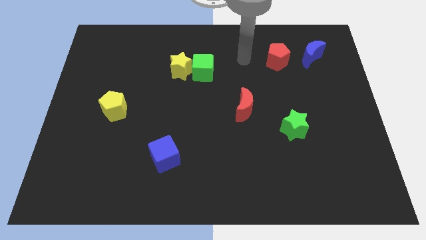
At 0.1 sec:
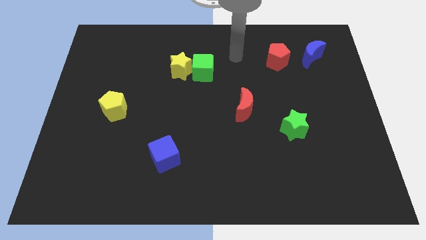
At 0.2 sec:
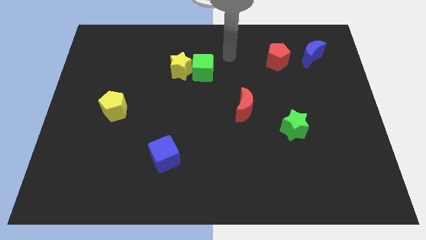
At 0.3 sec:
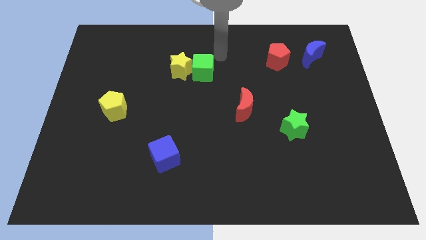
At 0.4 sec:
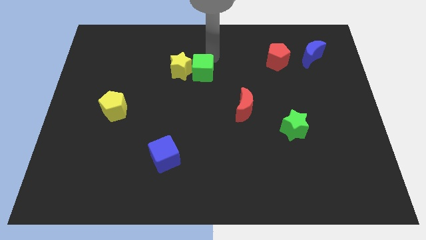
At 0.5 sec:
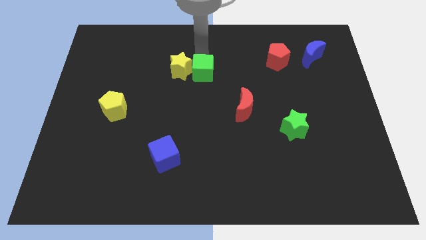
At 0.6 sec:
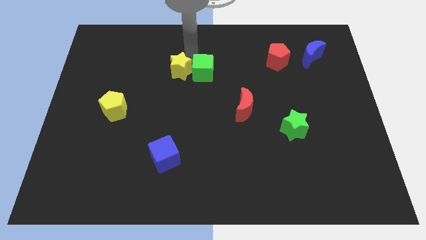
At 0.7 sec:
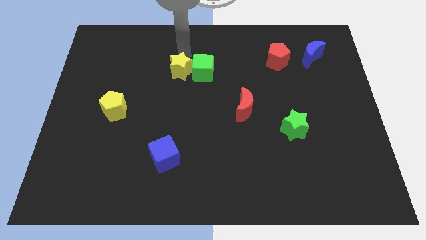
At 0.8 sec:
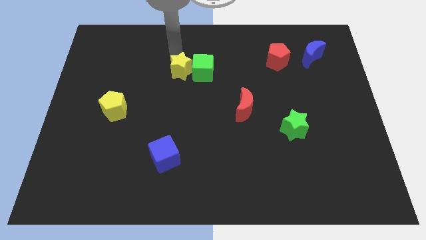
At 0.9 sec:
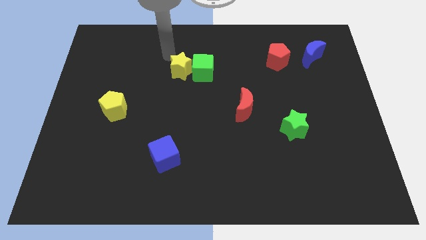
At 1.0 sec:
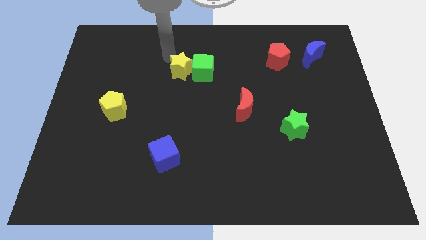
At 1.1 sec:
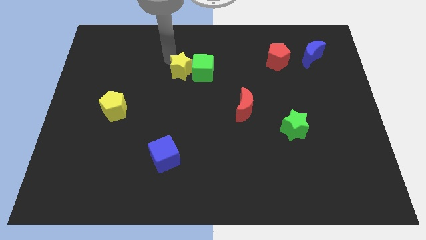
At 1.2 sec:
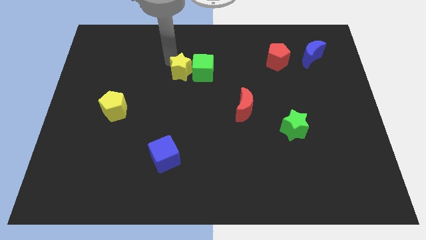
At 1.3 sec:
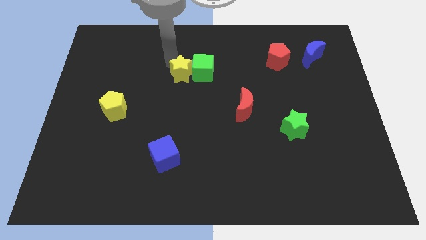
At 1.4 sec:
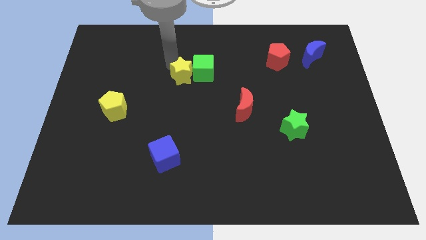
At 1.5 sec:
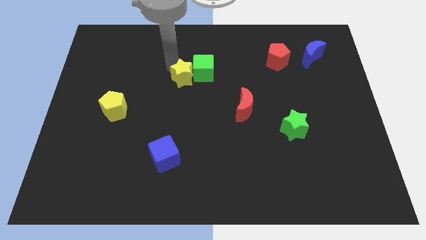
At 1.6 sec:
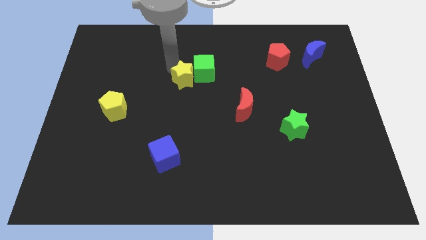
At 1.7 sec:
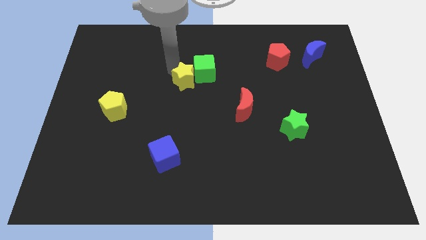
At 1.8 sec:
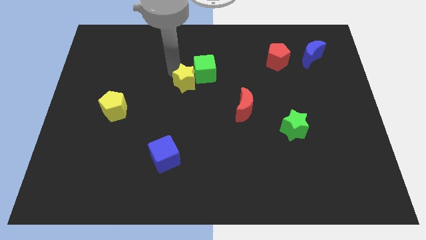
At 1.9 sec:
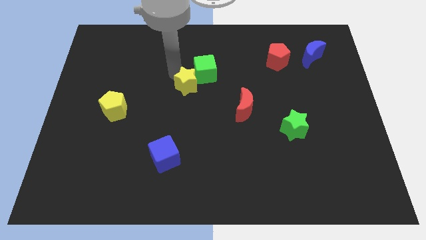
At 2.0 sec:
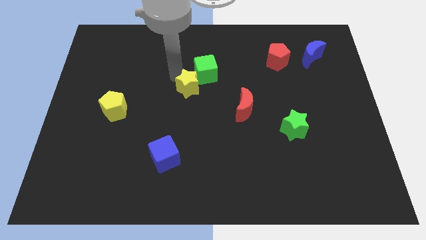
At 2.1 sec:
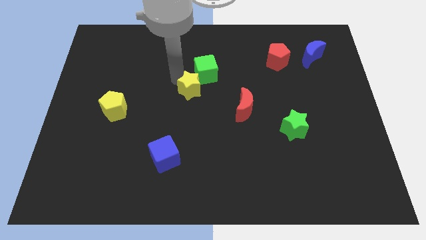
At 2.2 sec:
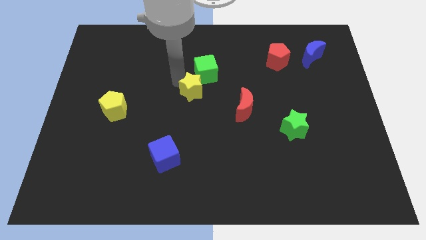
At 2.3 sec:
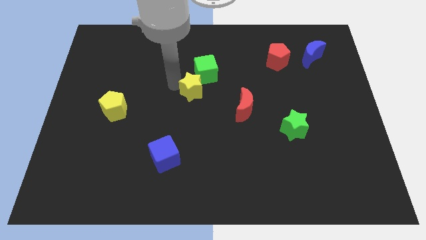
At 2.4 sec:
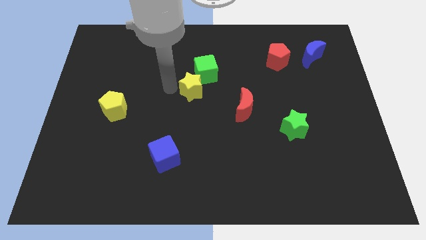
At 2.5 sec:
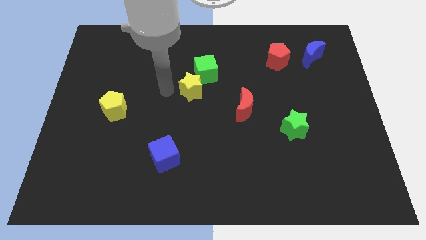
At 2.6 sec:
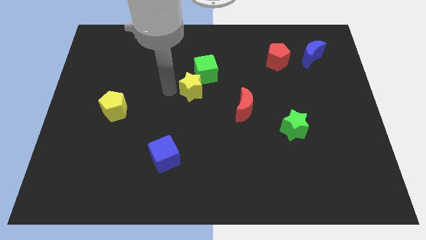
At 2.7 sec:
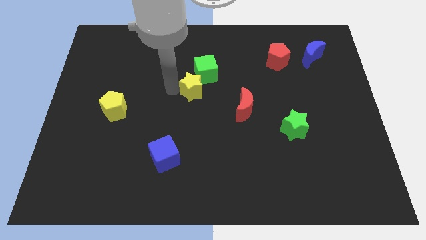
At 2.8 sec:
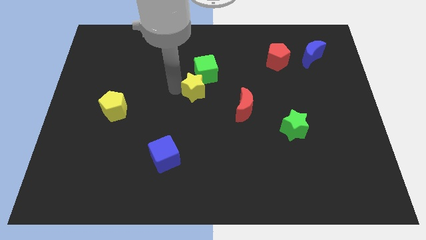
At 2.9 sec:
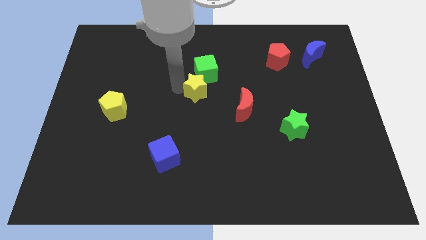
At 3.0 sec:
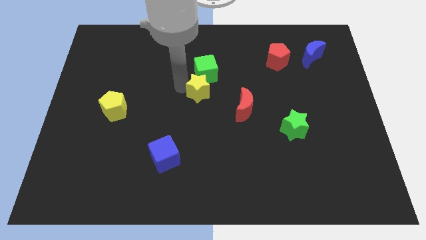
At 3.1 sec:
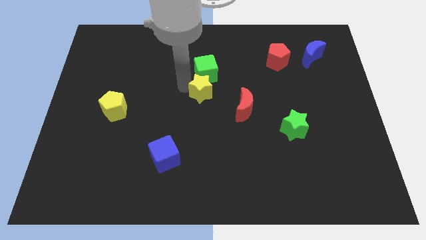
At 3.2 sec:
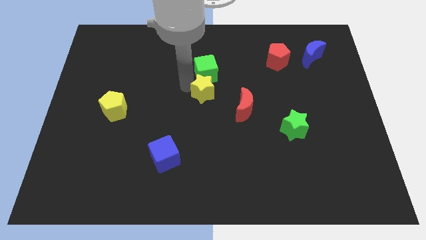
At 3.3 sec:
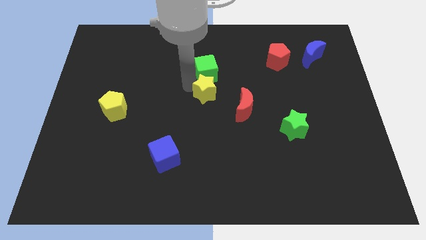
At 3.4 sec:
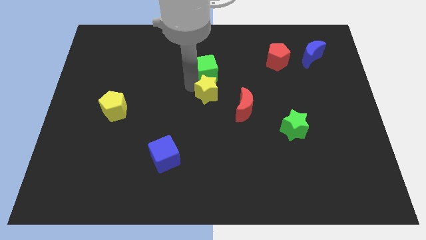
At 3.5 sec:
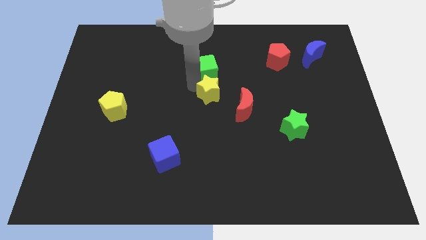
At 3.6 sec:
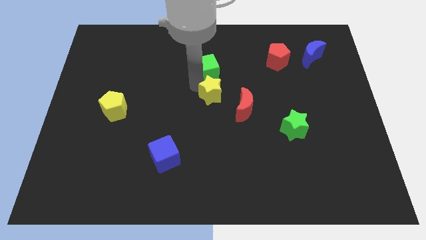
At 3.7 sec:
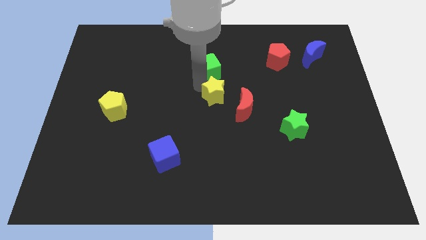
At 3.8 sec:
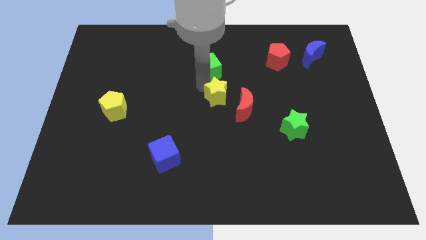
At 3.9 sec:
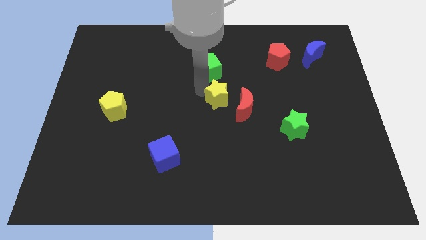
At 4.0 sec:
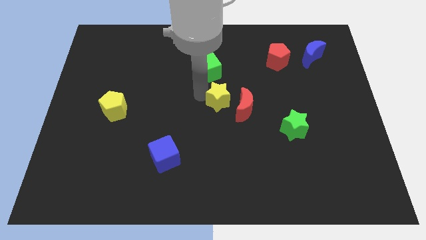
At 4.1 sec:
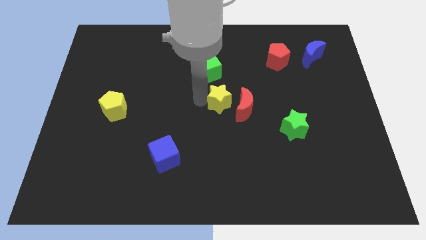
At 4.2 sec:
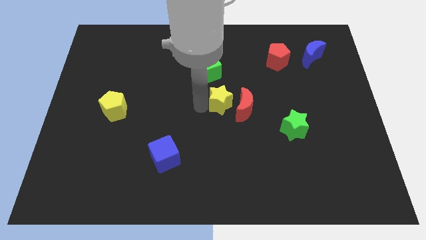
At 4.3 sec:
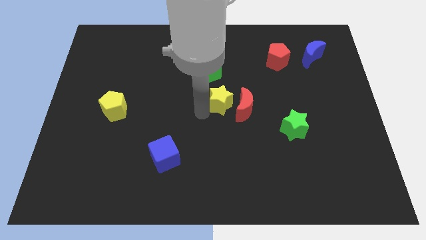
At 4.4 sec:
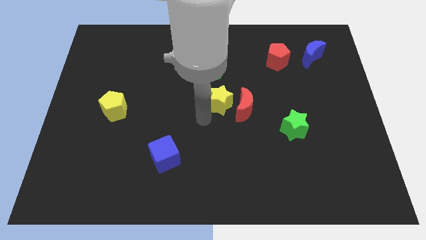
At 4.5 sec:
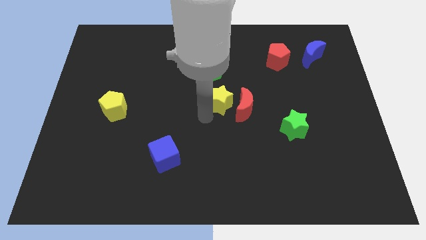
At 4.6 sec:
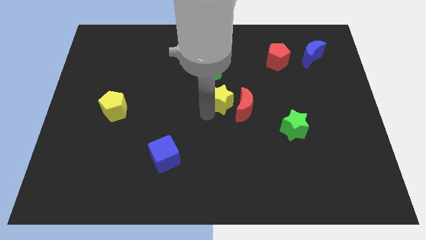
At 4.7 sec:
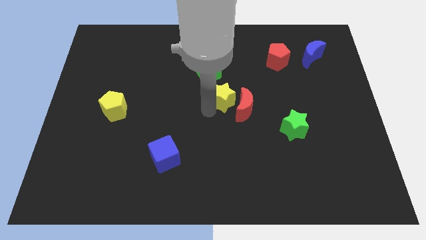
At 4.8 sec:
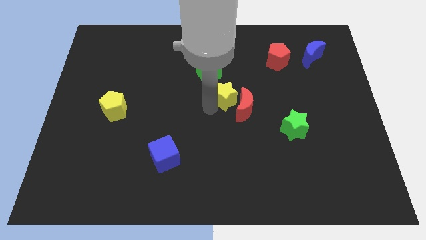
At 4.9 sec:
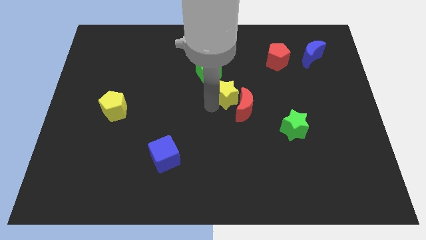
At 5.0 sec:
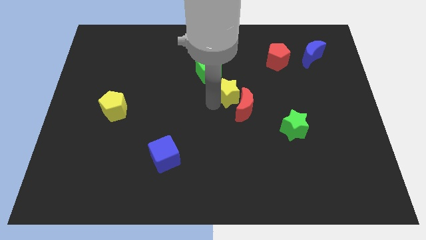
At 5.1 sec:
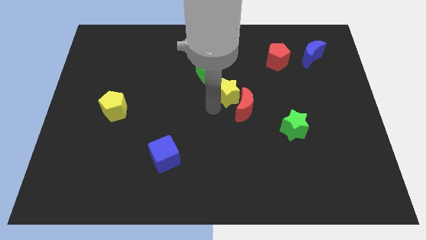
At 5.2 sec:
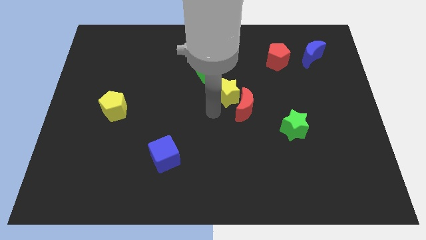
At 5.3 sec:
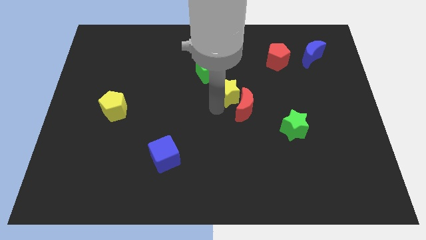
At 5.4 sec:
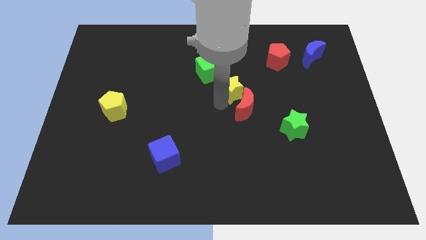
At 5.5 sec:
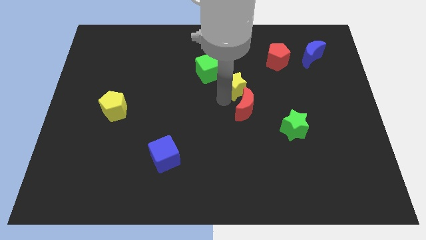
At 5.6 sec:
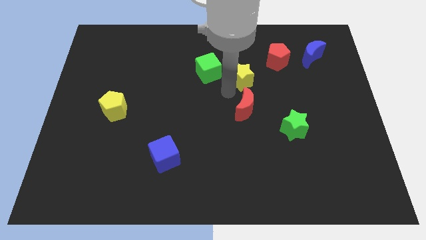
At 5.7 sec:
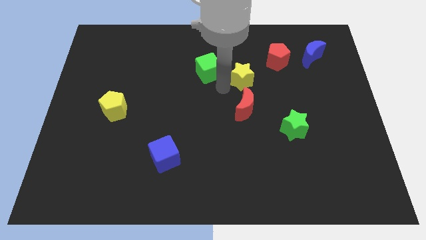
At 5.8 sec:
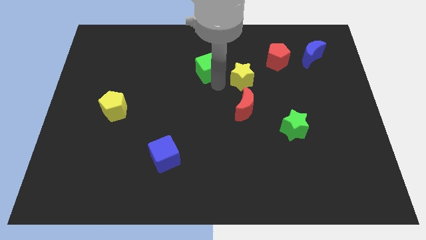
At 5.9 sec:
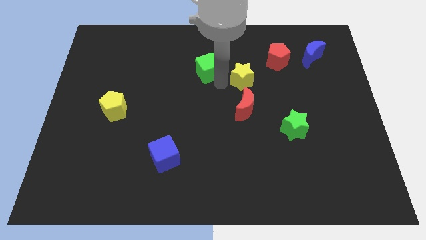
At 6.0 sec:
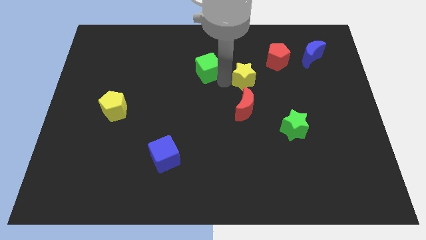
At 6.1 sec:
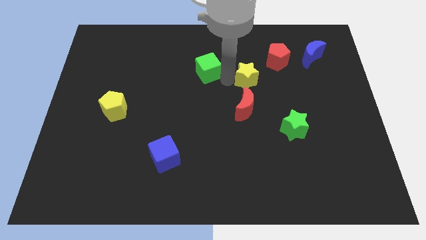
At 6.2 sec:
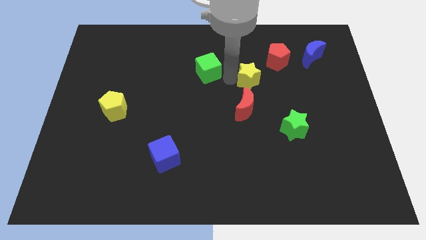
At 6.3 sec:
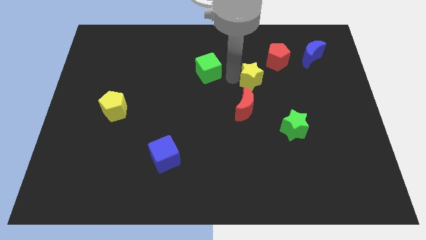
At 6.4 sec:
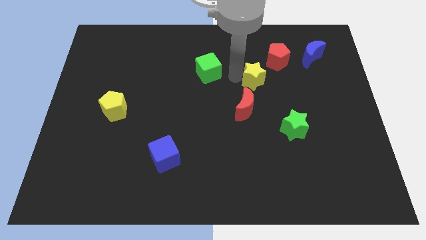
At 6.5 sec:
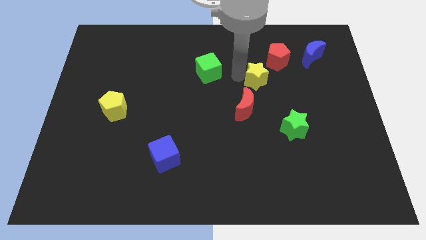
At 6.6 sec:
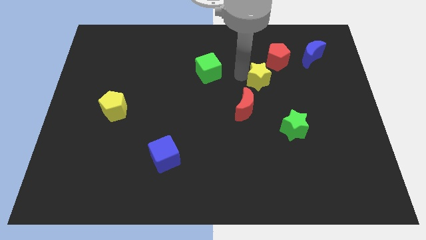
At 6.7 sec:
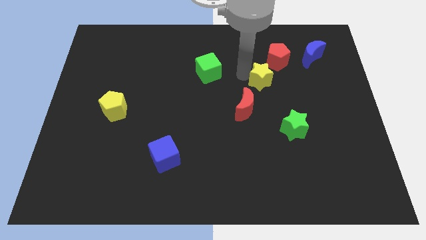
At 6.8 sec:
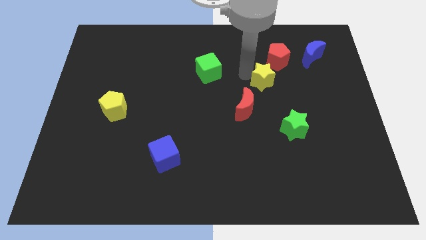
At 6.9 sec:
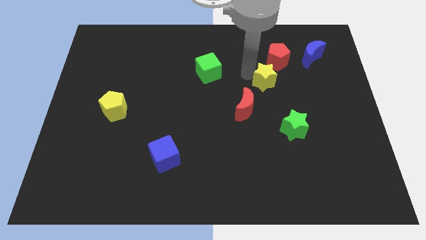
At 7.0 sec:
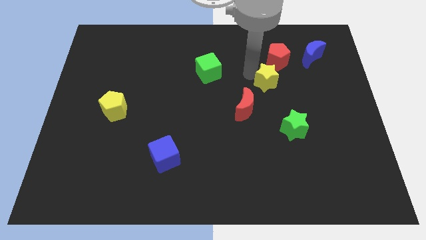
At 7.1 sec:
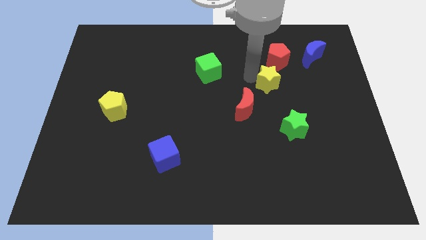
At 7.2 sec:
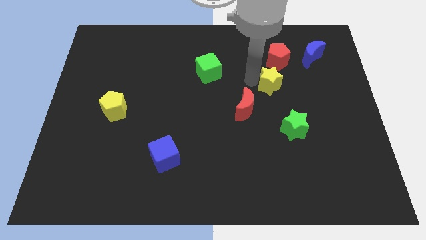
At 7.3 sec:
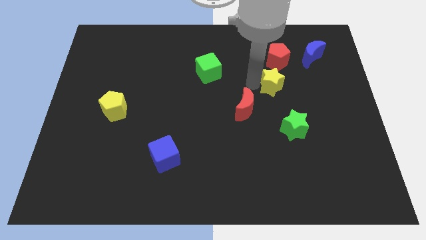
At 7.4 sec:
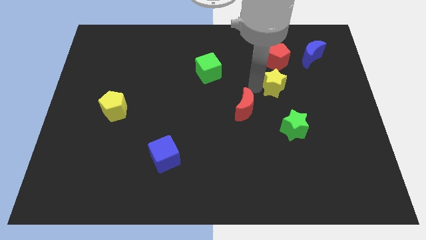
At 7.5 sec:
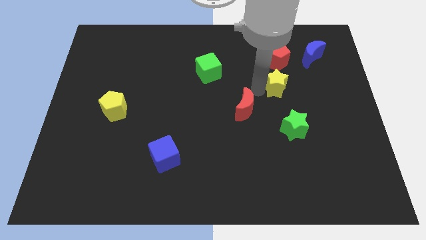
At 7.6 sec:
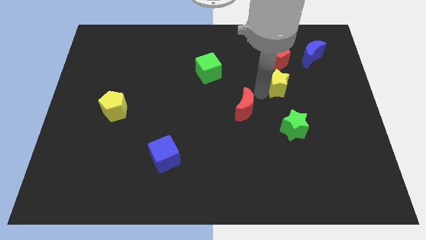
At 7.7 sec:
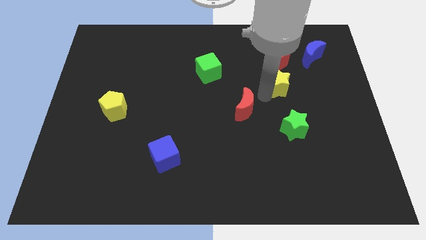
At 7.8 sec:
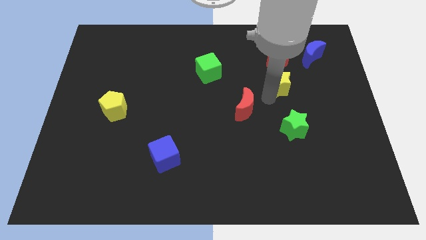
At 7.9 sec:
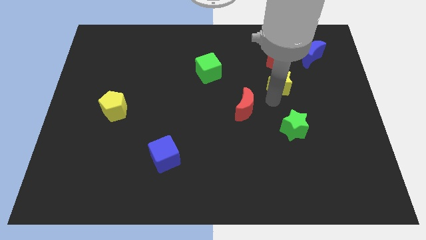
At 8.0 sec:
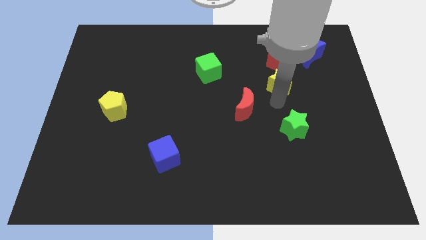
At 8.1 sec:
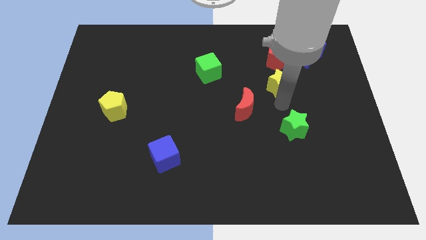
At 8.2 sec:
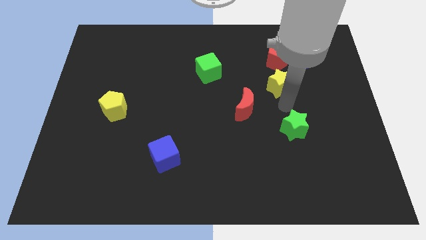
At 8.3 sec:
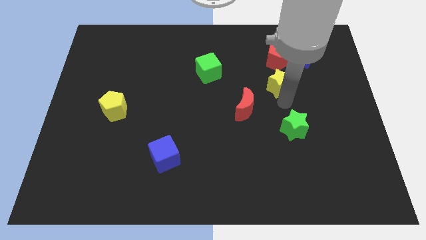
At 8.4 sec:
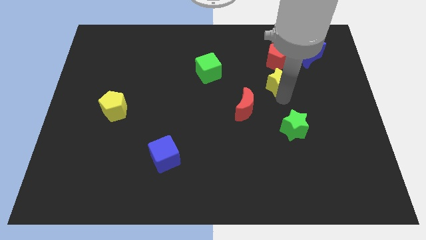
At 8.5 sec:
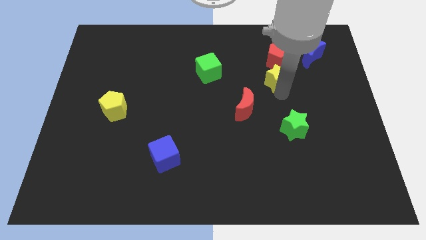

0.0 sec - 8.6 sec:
push the yellow star diagonally down and to the left of the blue moon
